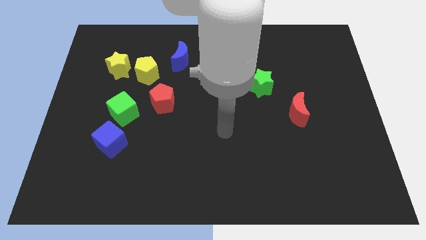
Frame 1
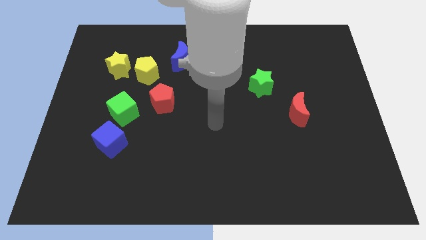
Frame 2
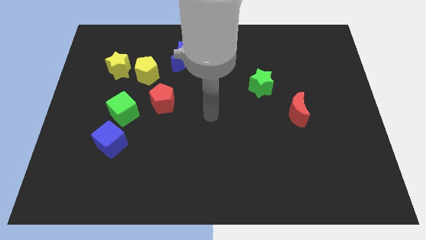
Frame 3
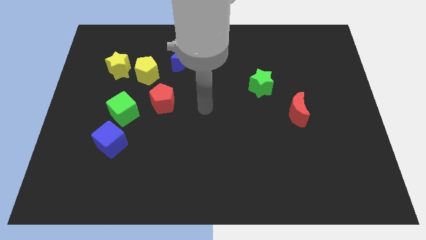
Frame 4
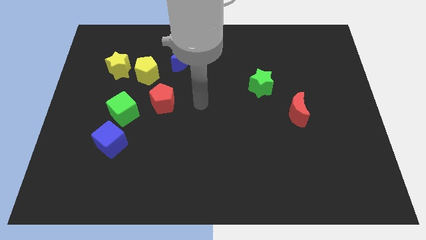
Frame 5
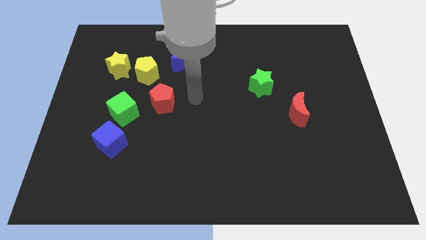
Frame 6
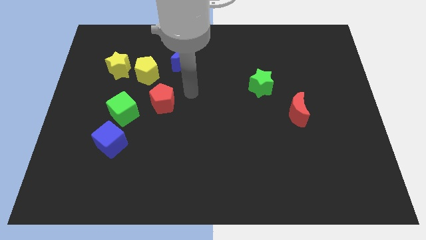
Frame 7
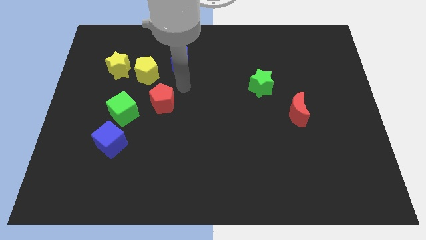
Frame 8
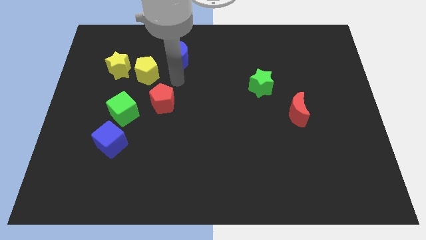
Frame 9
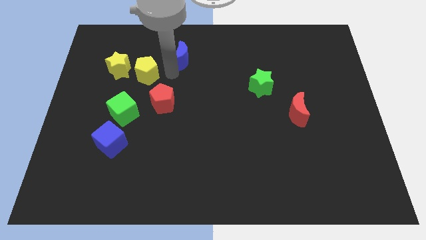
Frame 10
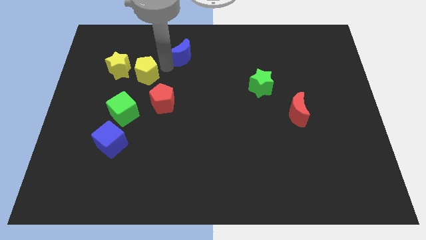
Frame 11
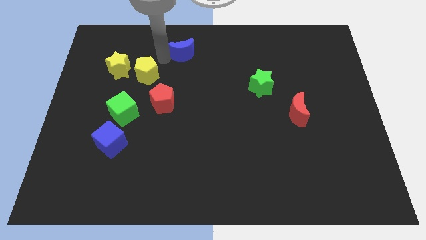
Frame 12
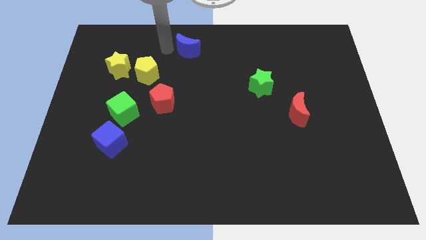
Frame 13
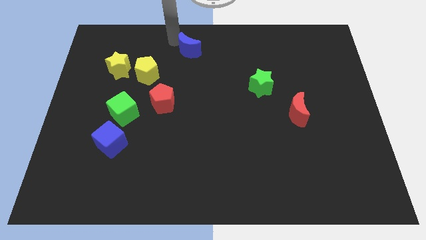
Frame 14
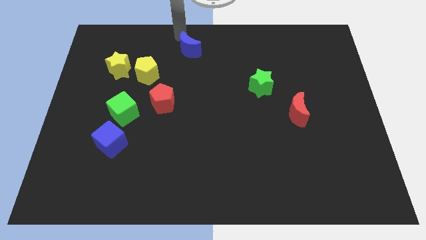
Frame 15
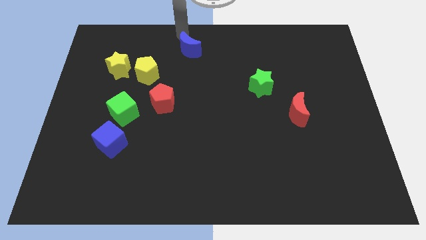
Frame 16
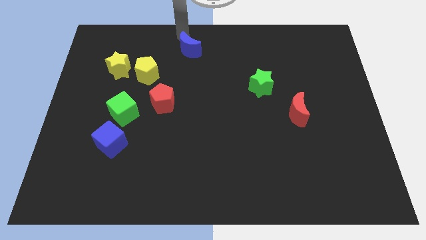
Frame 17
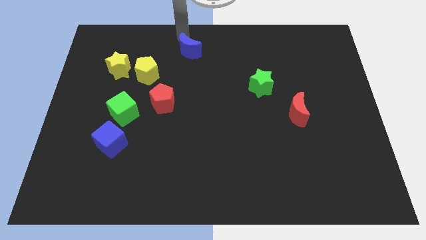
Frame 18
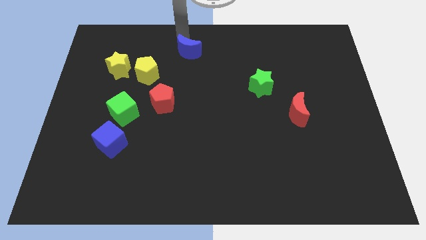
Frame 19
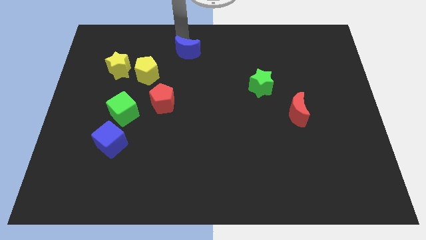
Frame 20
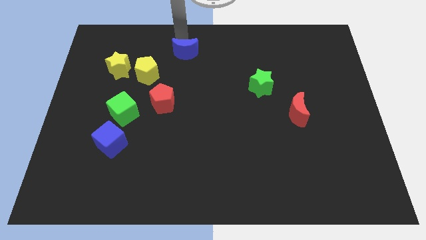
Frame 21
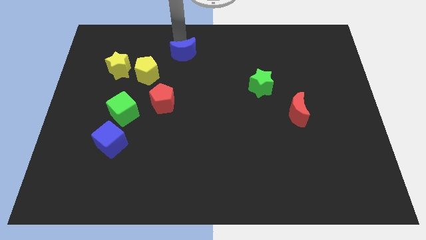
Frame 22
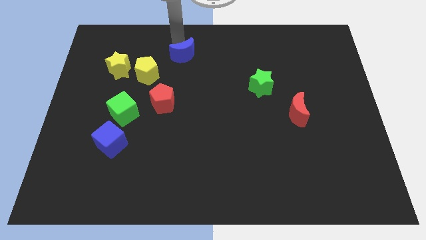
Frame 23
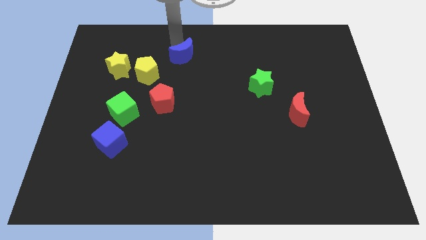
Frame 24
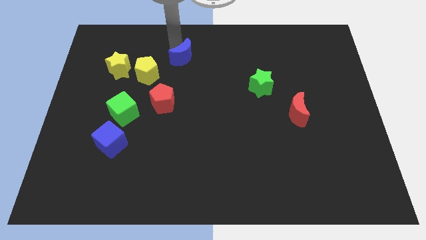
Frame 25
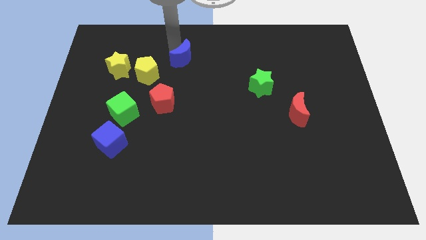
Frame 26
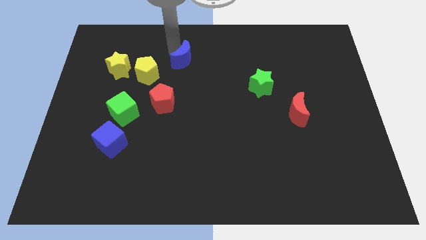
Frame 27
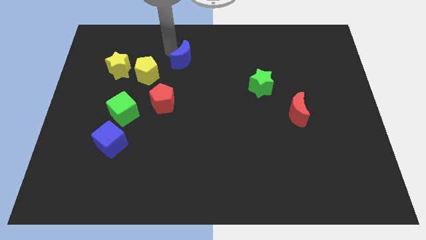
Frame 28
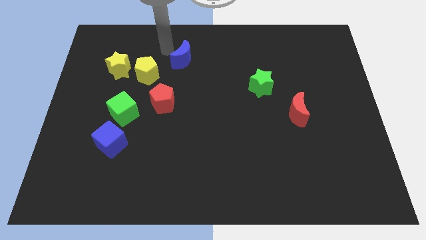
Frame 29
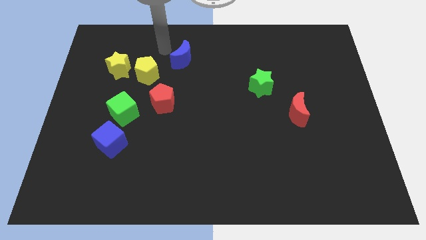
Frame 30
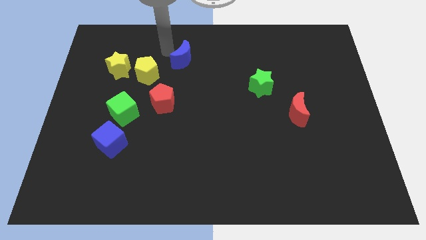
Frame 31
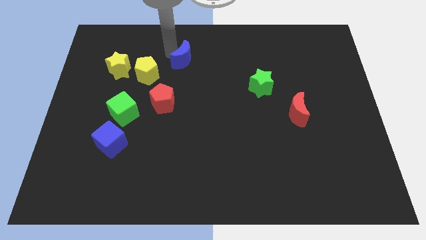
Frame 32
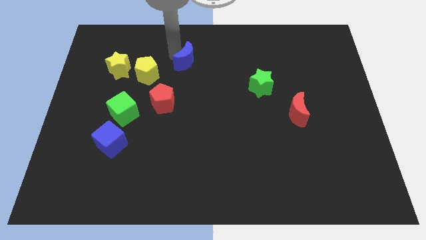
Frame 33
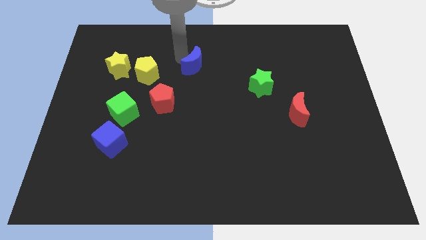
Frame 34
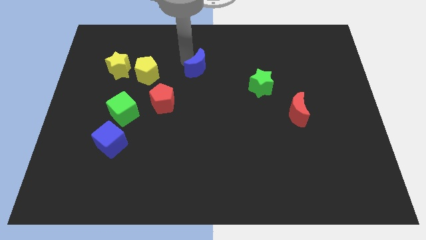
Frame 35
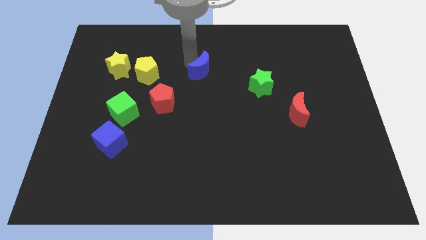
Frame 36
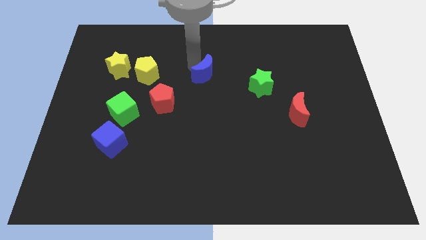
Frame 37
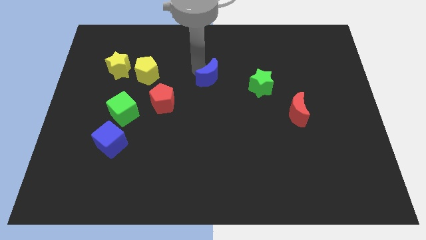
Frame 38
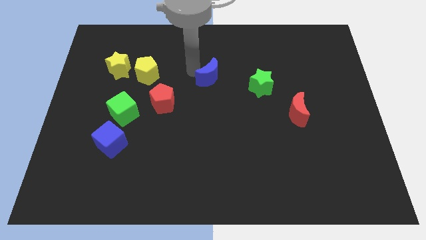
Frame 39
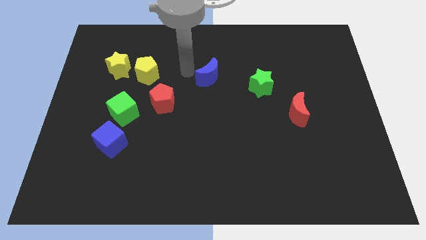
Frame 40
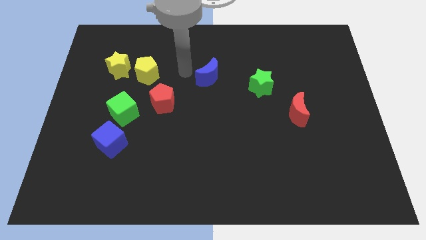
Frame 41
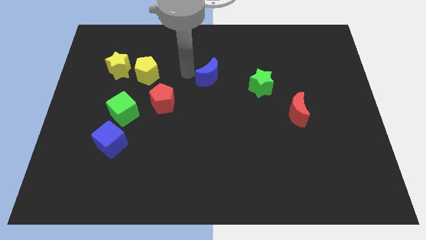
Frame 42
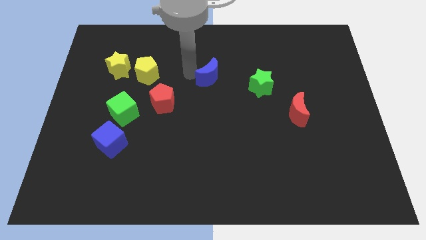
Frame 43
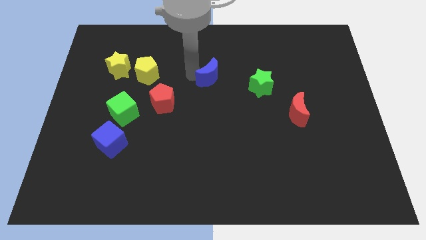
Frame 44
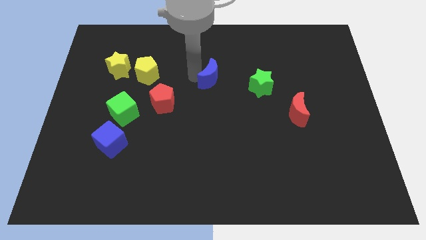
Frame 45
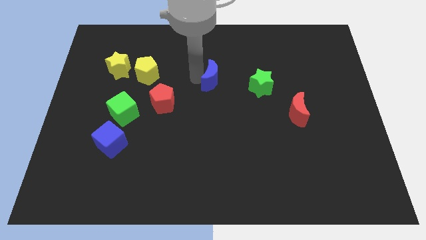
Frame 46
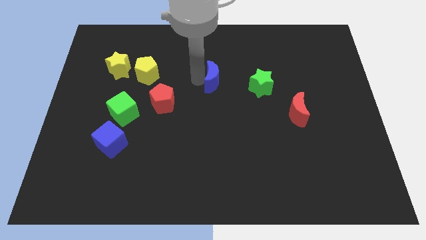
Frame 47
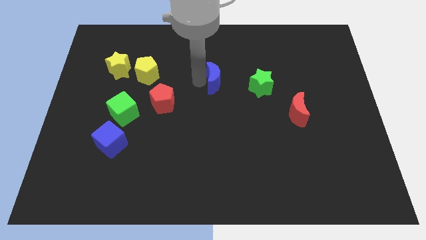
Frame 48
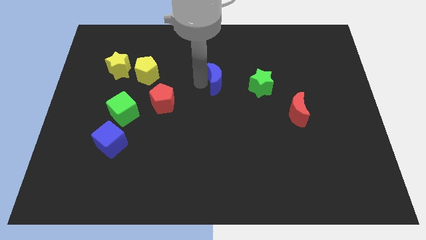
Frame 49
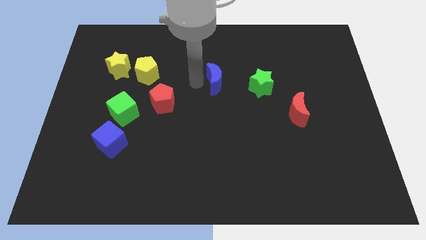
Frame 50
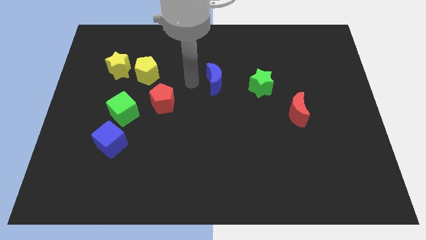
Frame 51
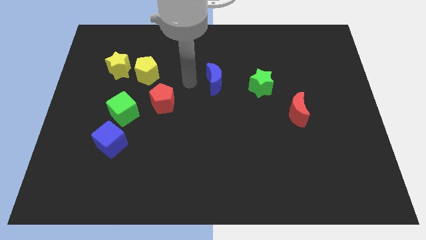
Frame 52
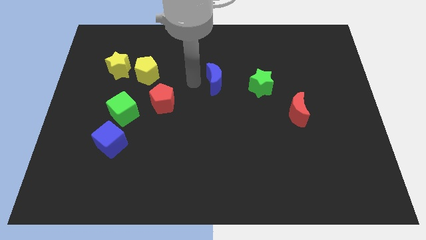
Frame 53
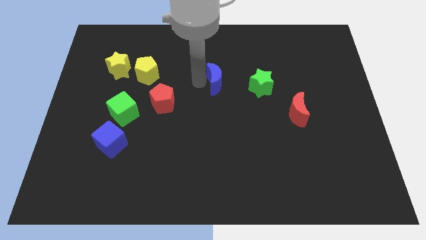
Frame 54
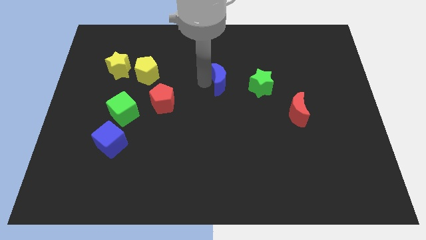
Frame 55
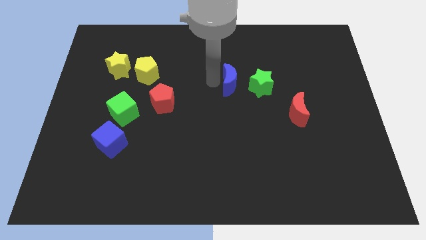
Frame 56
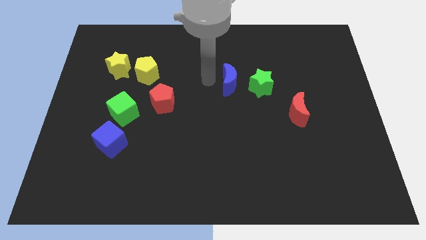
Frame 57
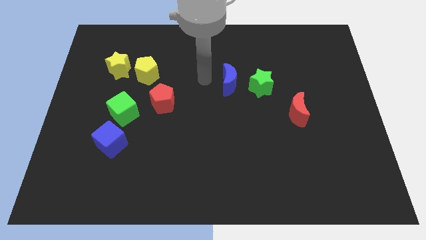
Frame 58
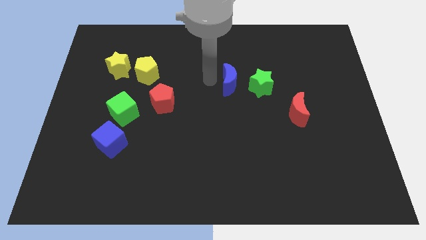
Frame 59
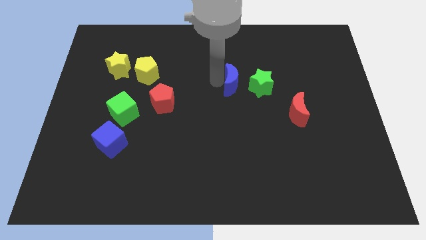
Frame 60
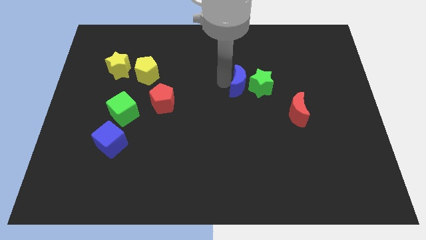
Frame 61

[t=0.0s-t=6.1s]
move the blue moon next to the green star
